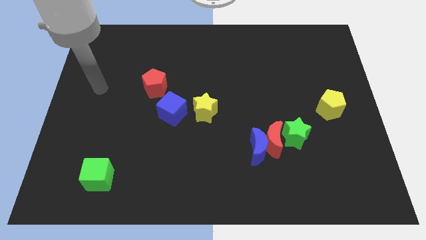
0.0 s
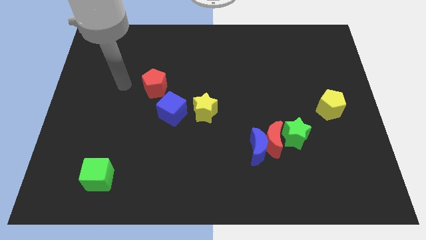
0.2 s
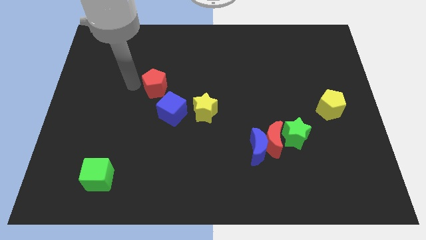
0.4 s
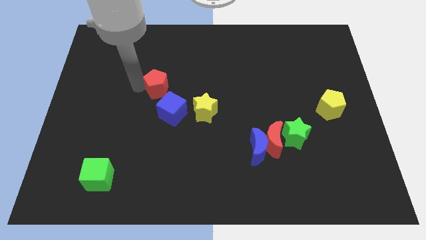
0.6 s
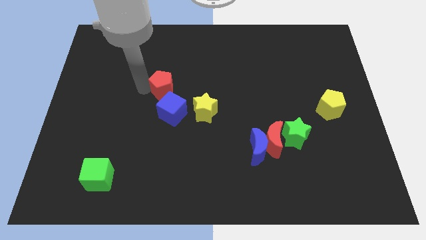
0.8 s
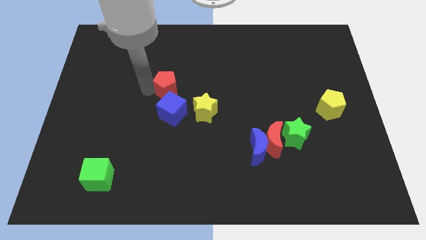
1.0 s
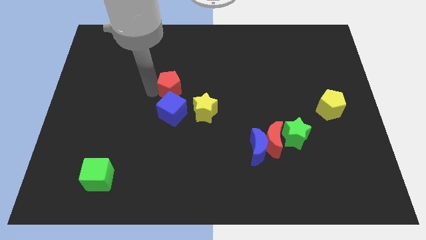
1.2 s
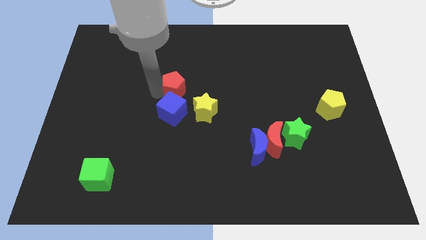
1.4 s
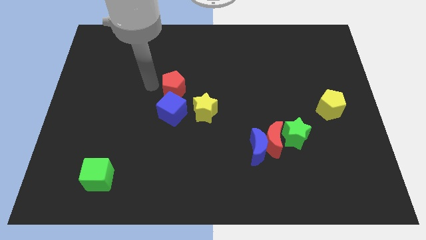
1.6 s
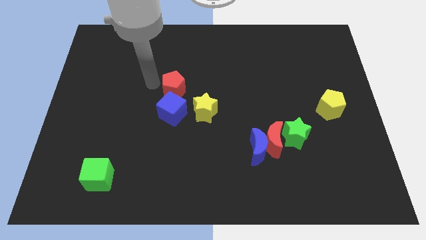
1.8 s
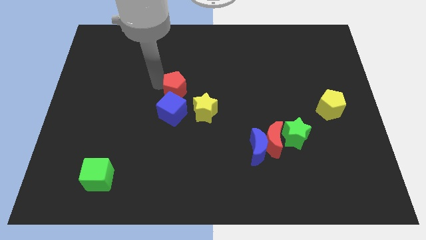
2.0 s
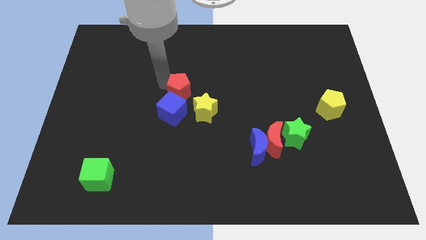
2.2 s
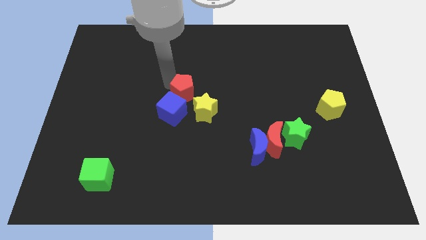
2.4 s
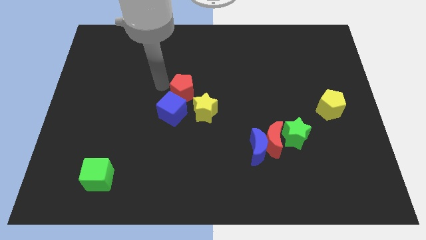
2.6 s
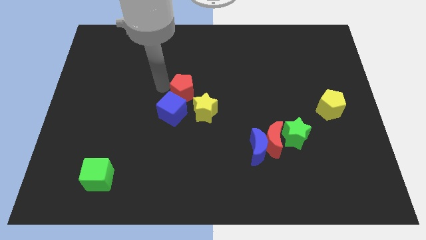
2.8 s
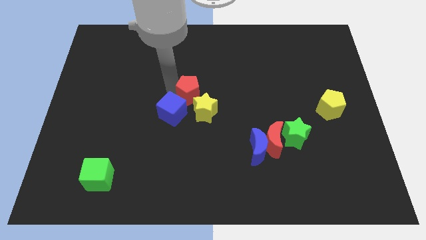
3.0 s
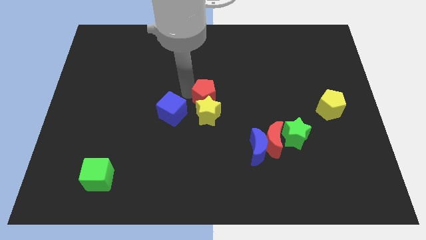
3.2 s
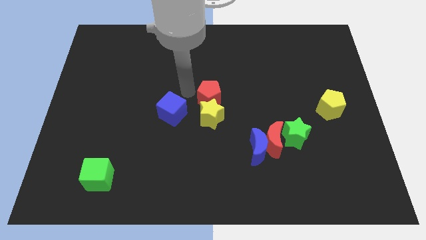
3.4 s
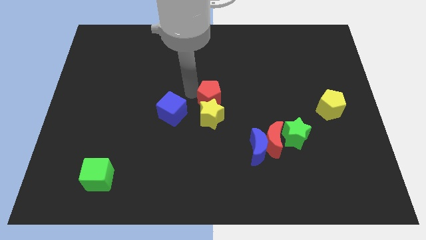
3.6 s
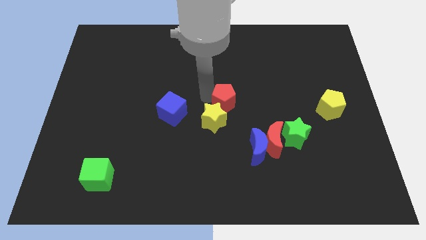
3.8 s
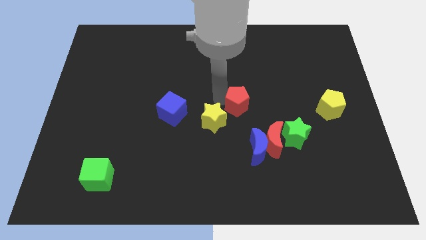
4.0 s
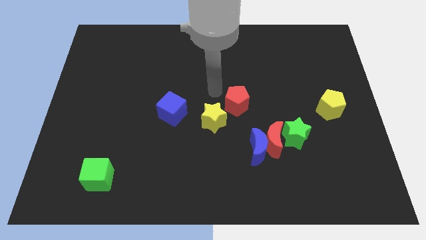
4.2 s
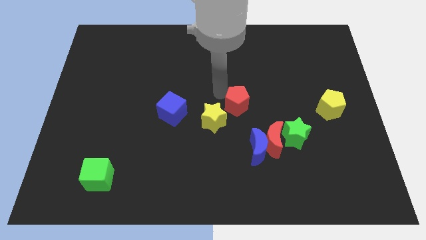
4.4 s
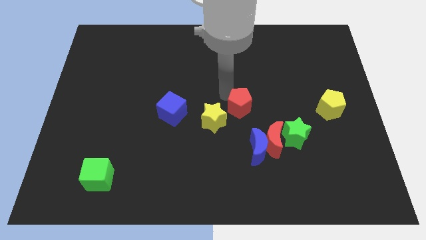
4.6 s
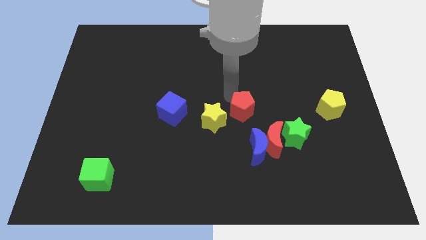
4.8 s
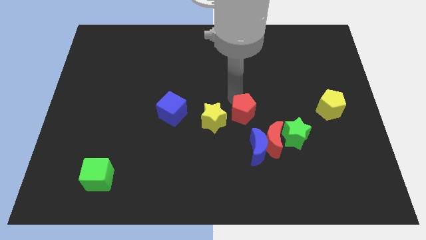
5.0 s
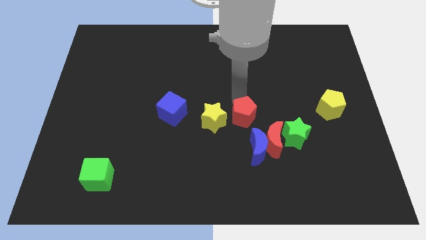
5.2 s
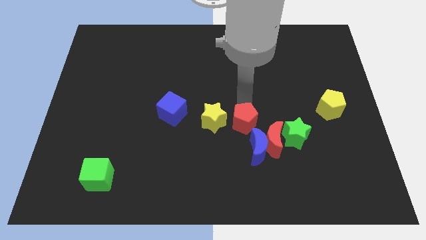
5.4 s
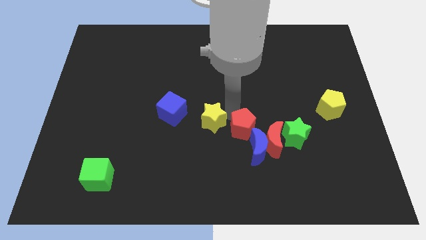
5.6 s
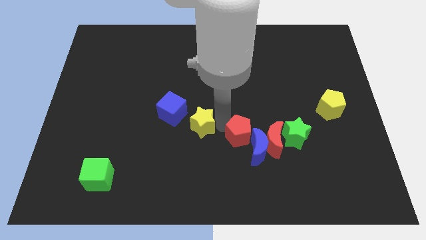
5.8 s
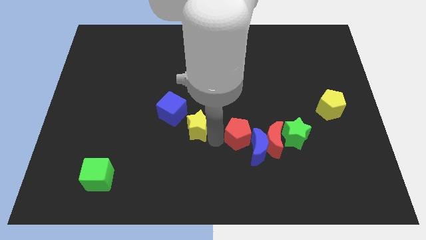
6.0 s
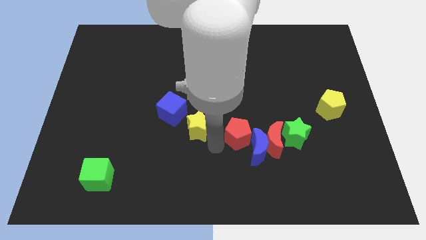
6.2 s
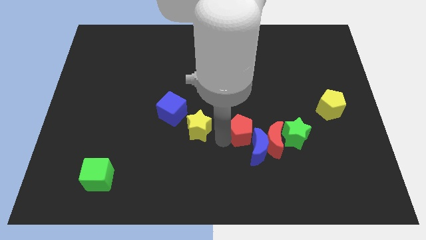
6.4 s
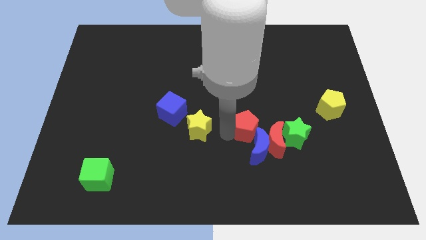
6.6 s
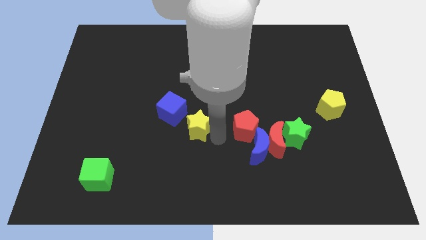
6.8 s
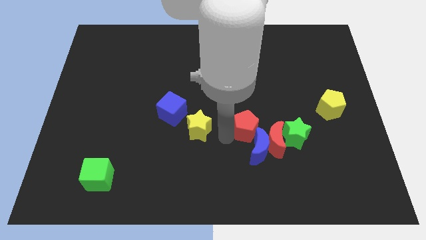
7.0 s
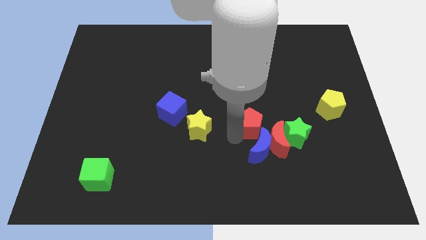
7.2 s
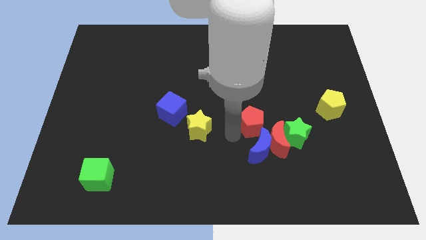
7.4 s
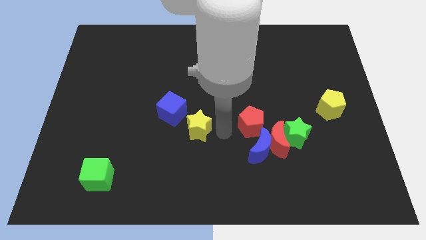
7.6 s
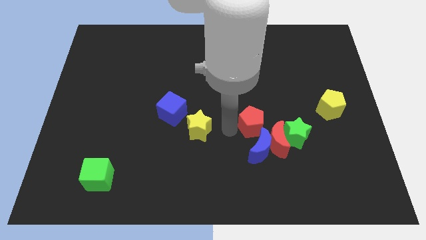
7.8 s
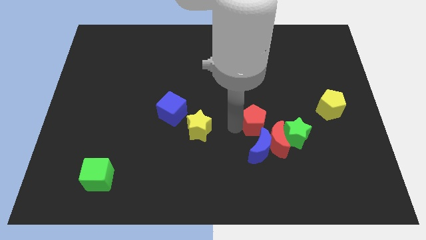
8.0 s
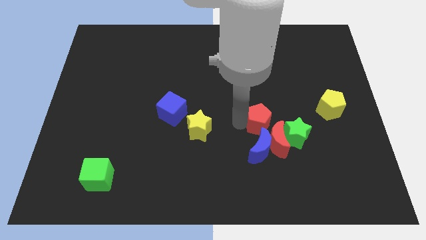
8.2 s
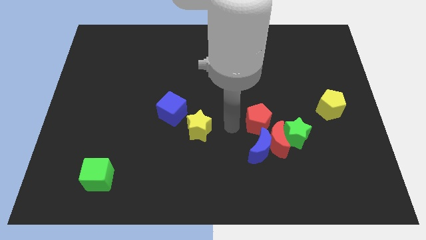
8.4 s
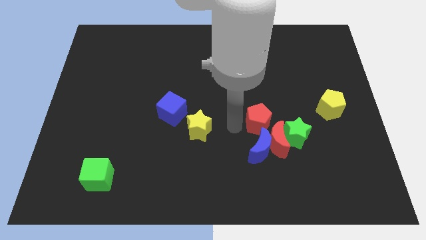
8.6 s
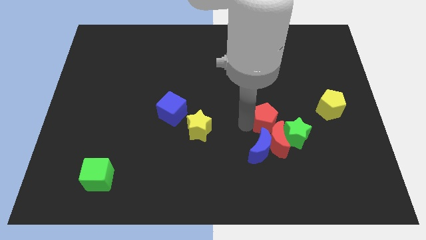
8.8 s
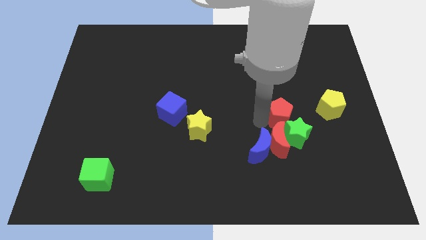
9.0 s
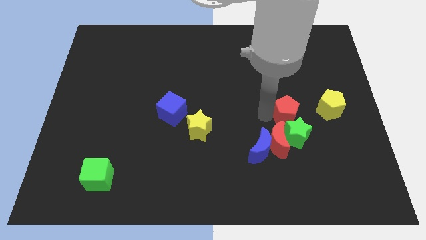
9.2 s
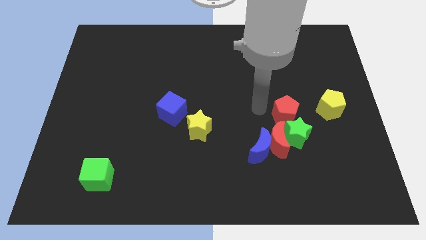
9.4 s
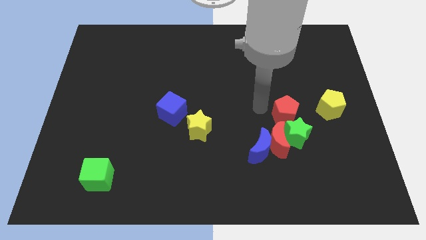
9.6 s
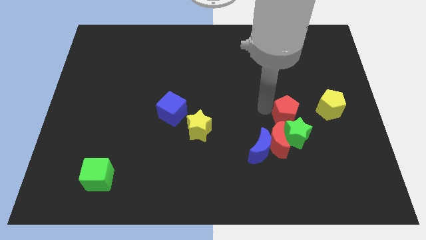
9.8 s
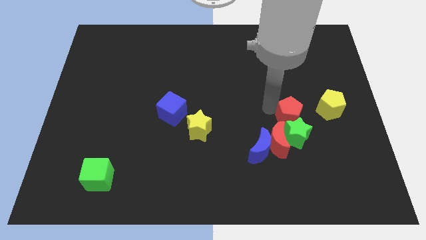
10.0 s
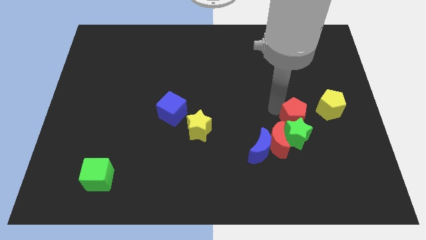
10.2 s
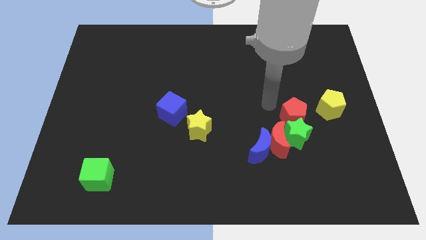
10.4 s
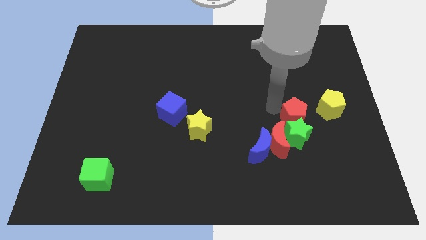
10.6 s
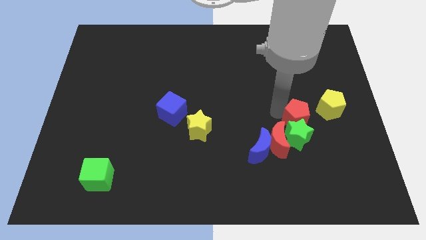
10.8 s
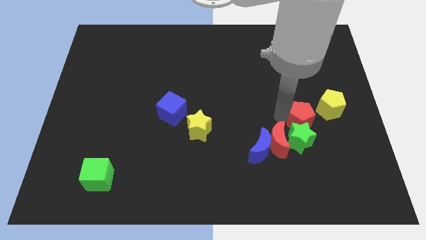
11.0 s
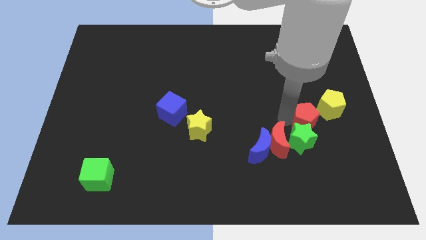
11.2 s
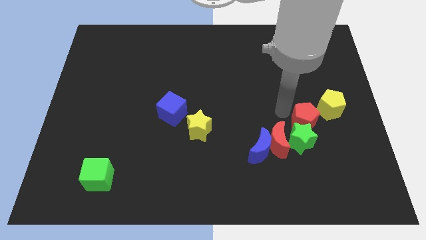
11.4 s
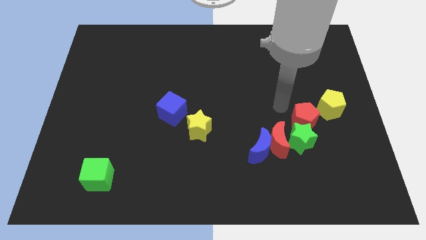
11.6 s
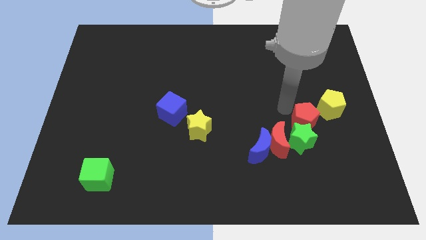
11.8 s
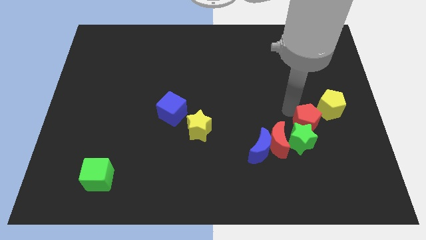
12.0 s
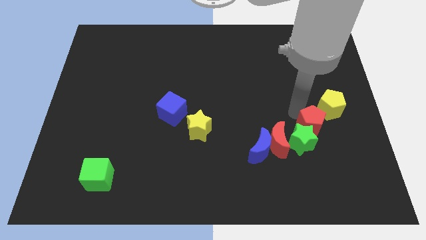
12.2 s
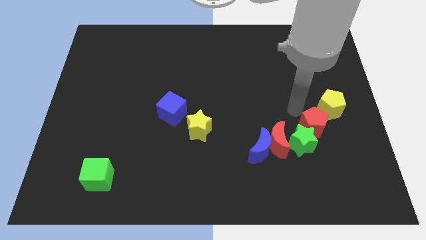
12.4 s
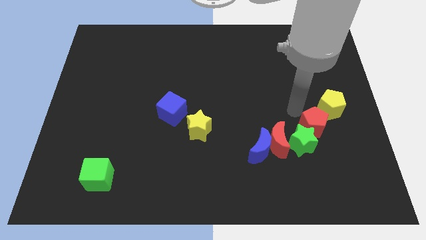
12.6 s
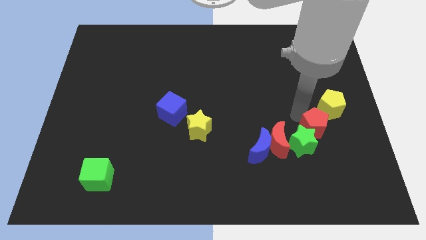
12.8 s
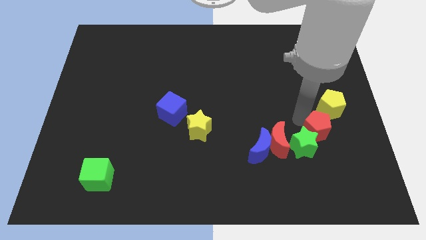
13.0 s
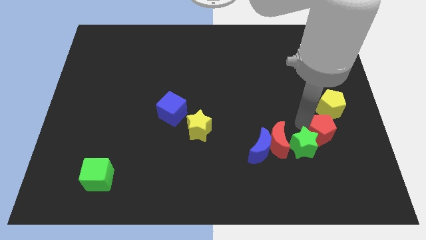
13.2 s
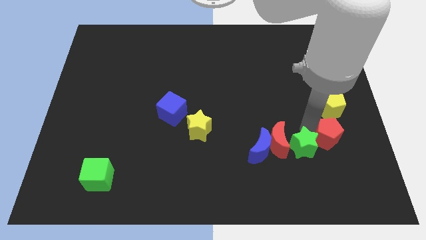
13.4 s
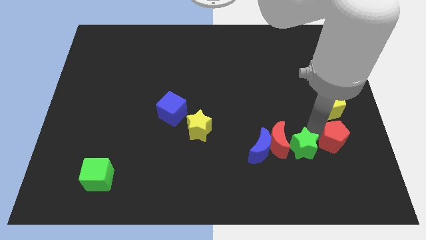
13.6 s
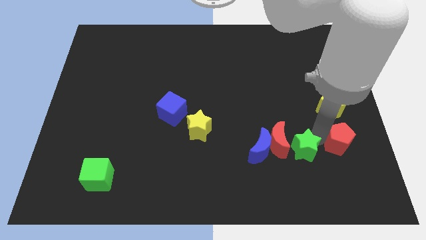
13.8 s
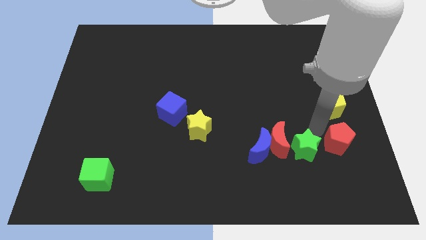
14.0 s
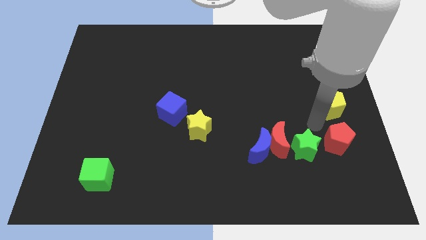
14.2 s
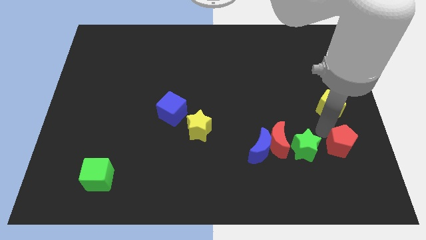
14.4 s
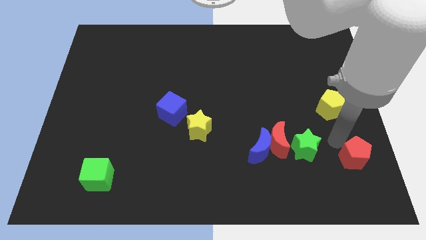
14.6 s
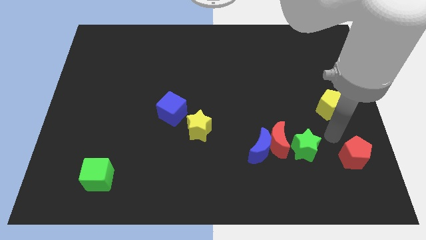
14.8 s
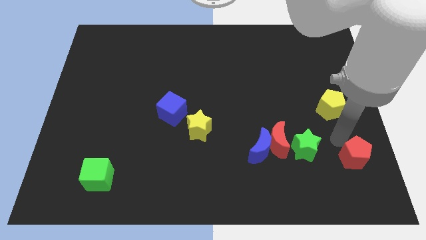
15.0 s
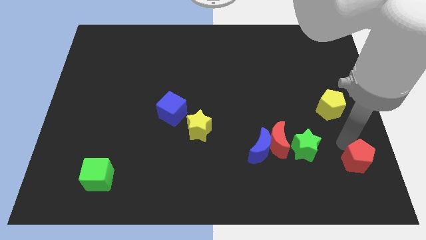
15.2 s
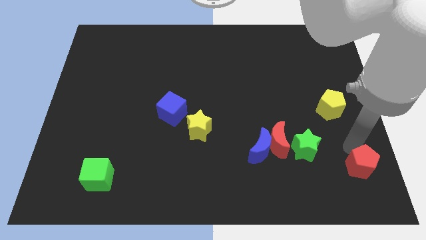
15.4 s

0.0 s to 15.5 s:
put the red pentagon to the bottom right corner
